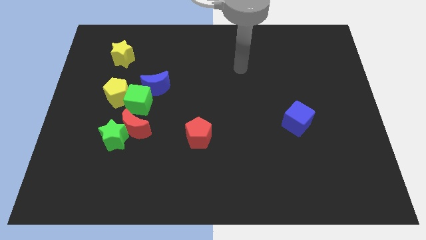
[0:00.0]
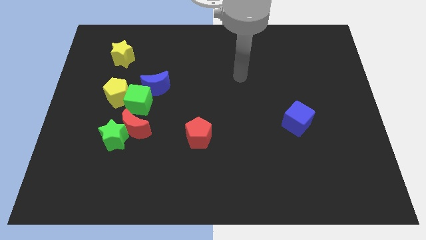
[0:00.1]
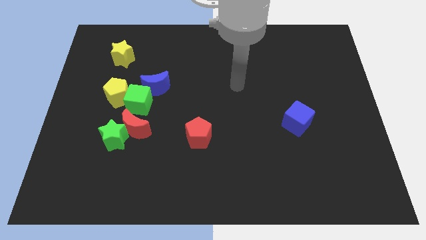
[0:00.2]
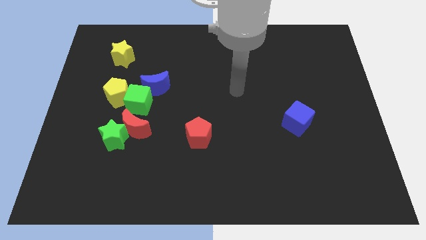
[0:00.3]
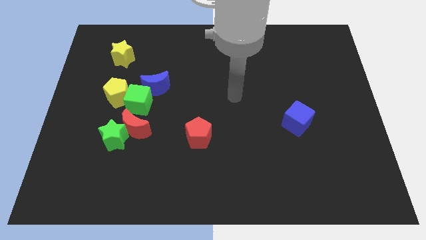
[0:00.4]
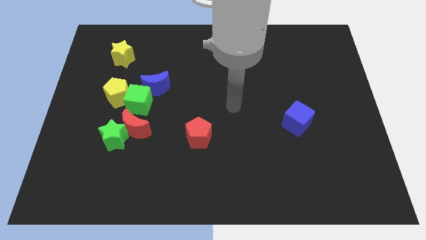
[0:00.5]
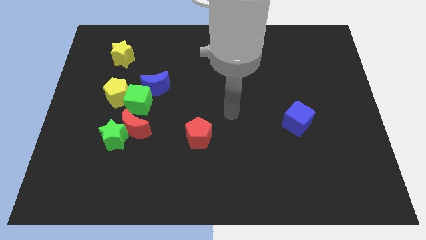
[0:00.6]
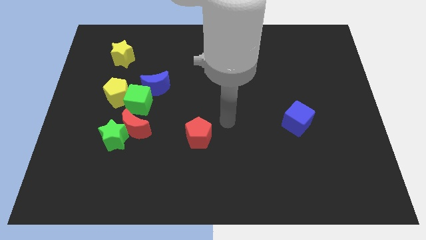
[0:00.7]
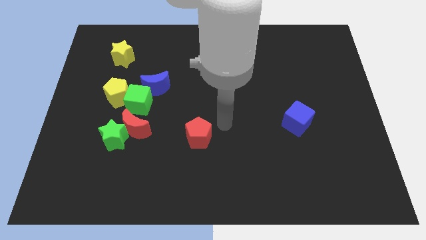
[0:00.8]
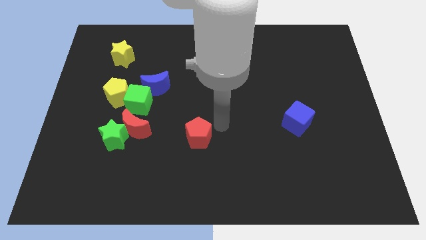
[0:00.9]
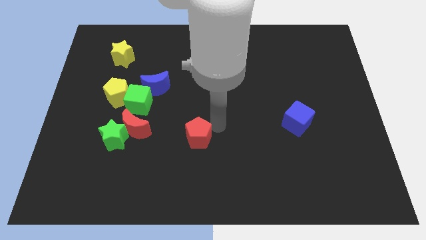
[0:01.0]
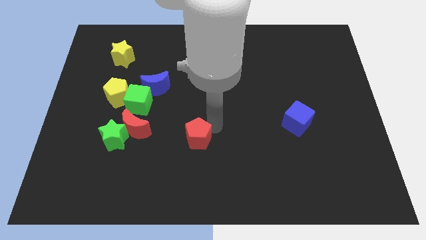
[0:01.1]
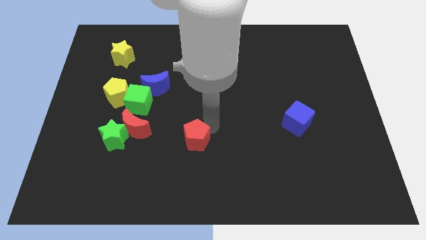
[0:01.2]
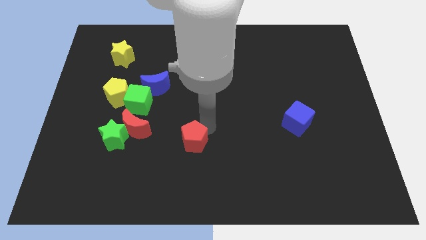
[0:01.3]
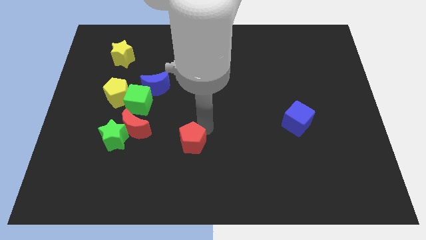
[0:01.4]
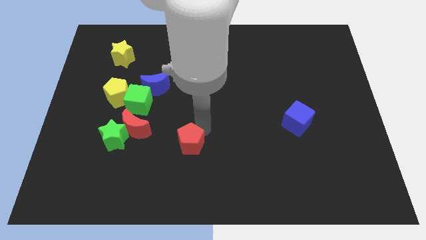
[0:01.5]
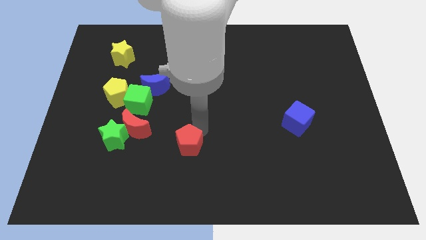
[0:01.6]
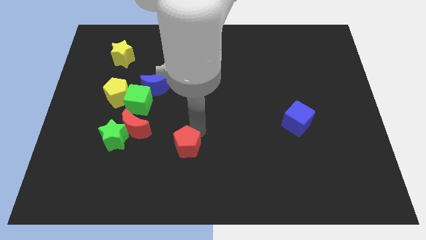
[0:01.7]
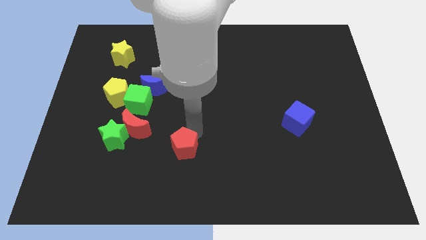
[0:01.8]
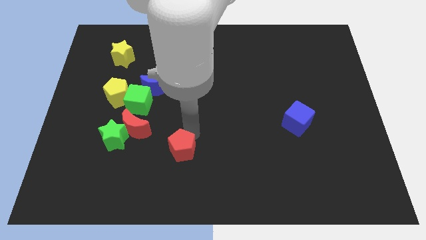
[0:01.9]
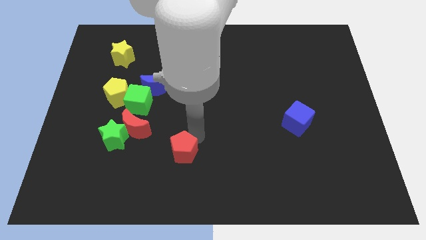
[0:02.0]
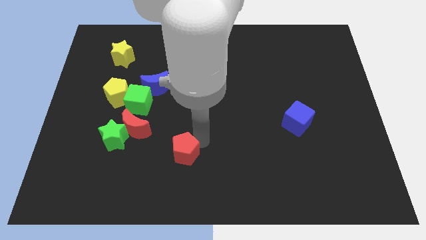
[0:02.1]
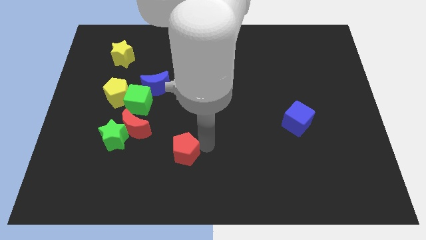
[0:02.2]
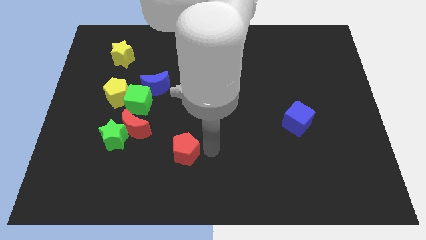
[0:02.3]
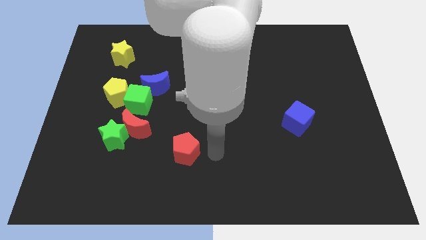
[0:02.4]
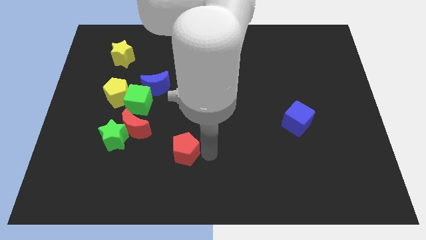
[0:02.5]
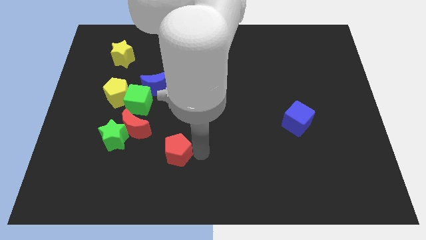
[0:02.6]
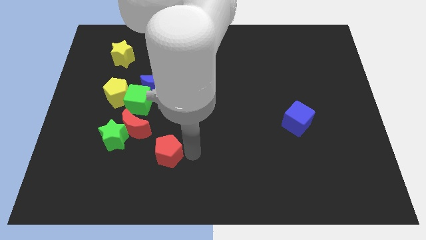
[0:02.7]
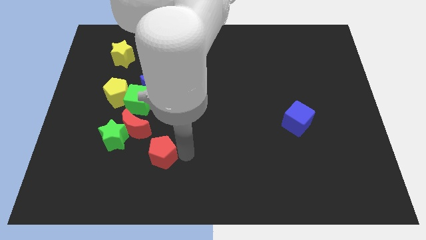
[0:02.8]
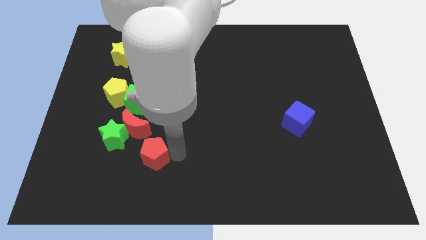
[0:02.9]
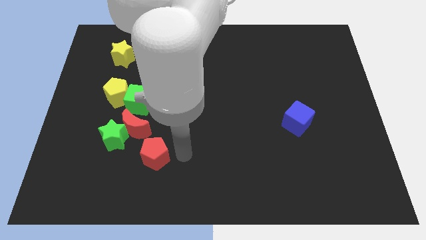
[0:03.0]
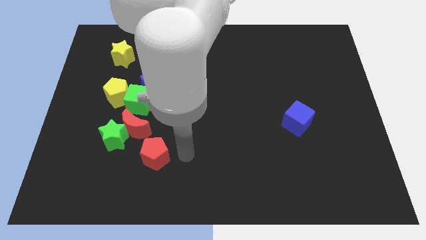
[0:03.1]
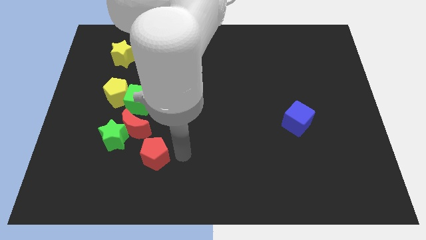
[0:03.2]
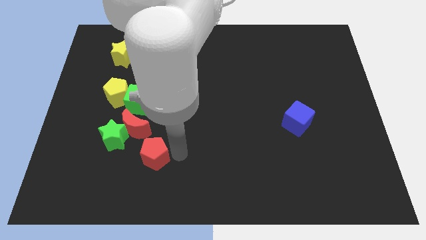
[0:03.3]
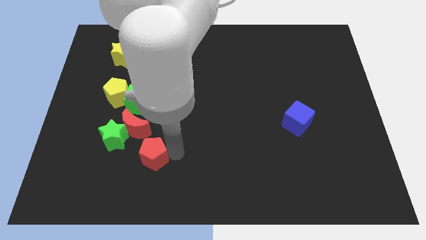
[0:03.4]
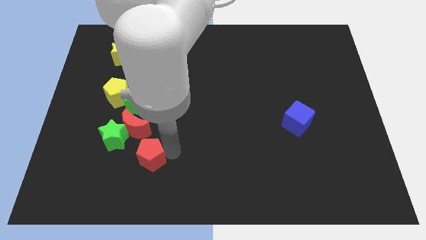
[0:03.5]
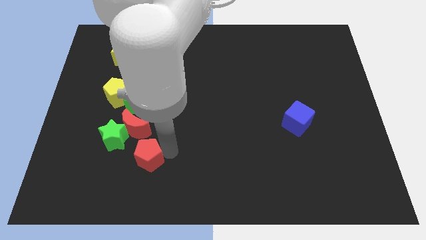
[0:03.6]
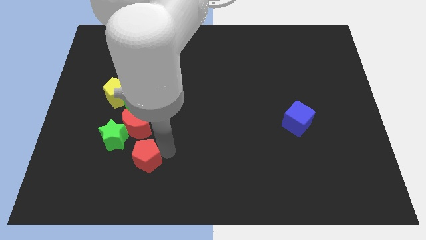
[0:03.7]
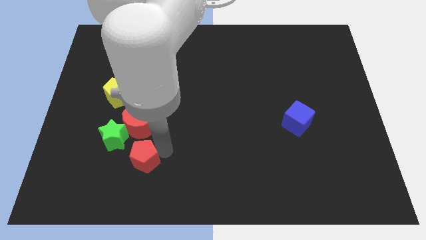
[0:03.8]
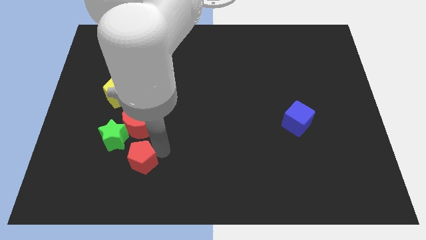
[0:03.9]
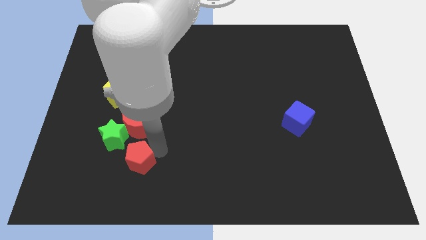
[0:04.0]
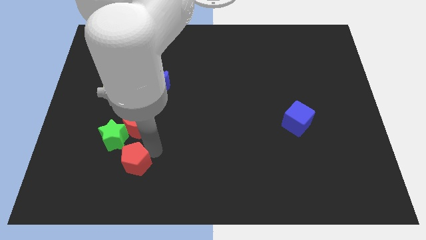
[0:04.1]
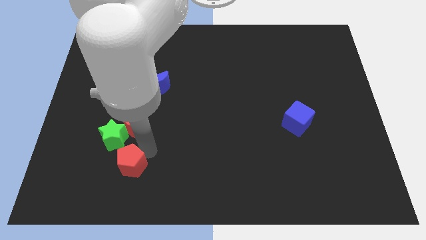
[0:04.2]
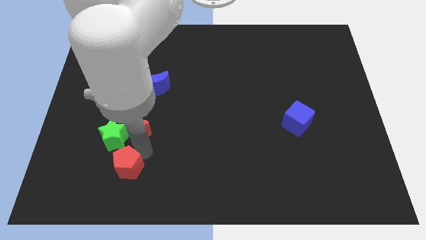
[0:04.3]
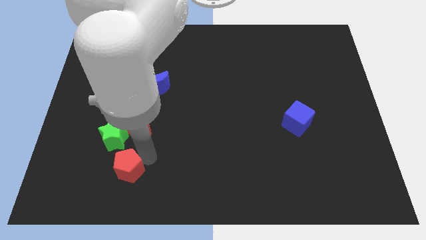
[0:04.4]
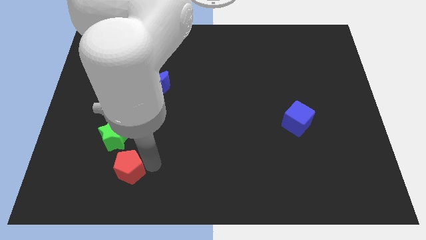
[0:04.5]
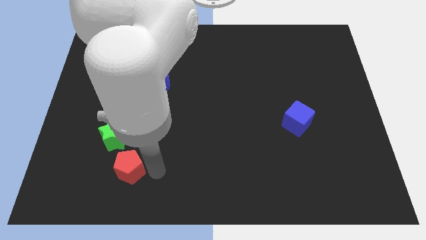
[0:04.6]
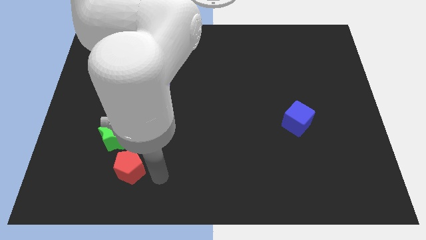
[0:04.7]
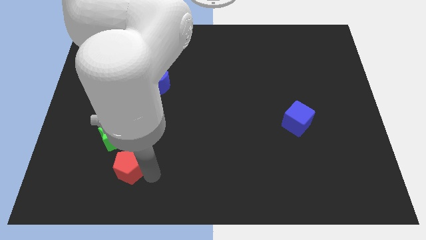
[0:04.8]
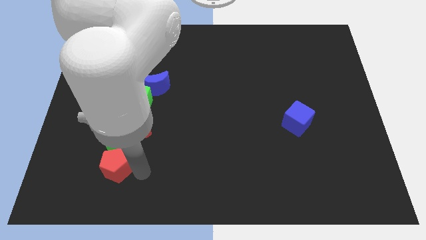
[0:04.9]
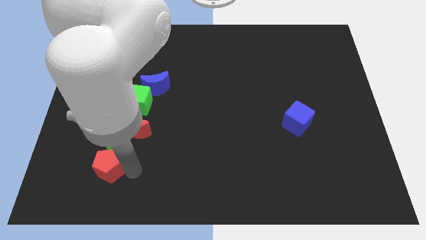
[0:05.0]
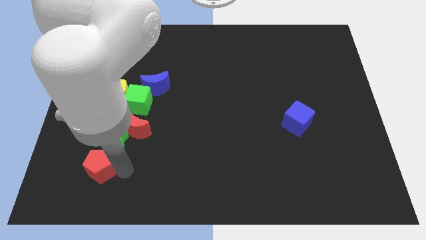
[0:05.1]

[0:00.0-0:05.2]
move the red pentagon diagonally down and to the left of the green star

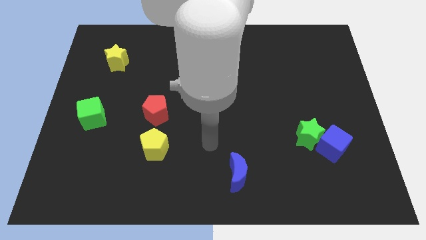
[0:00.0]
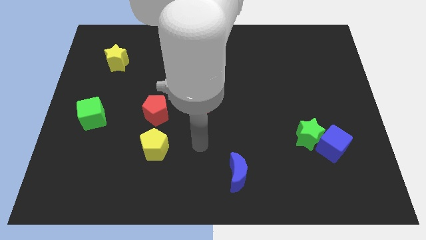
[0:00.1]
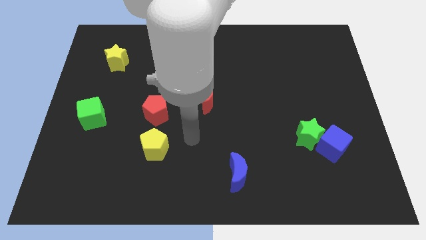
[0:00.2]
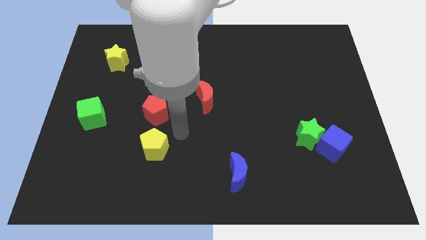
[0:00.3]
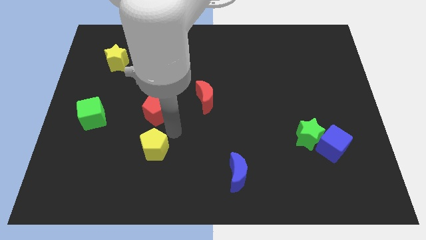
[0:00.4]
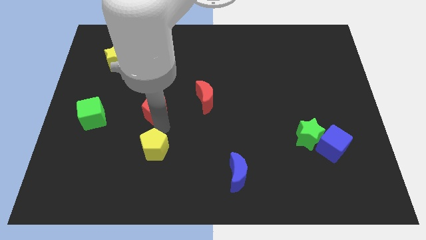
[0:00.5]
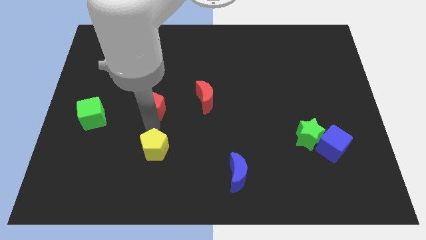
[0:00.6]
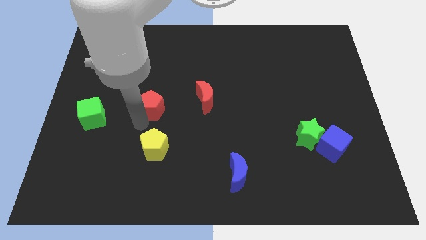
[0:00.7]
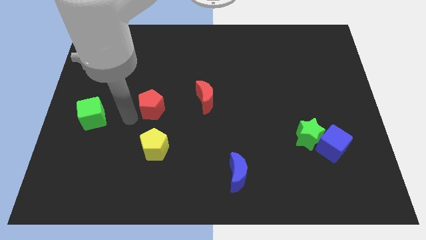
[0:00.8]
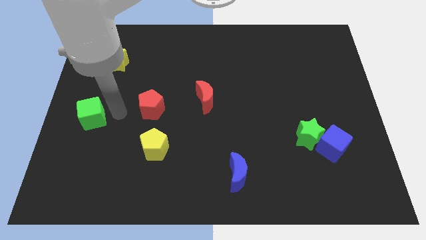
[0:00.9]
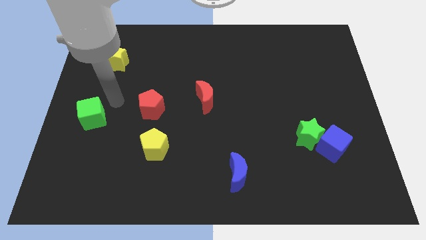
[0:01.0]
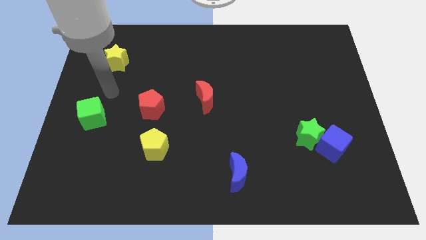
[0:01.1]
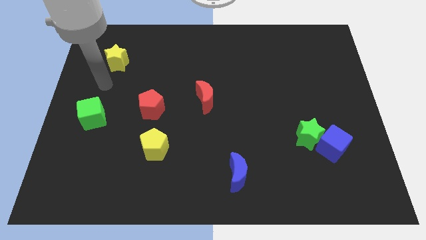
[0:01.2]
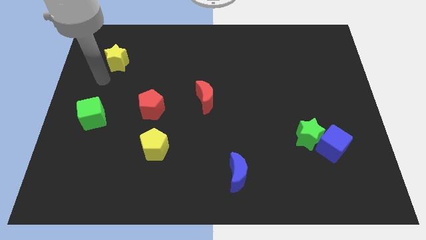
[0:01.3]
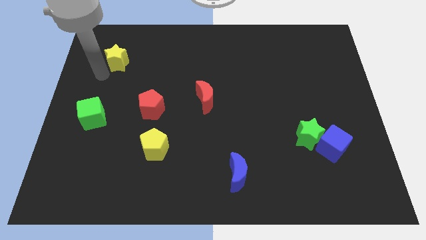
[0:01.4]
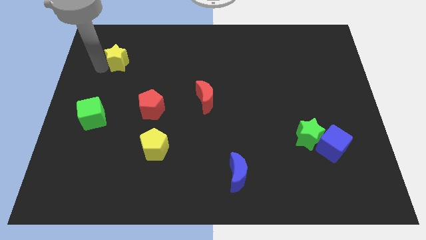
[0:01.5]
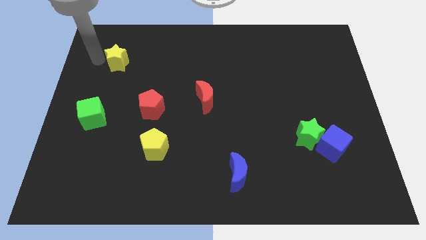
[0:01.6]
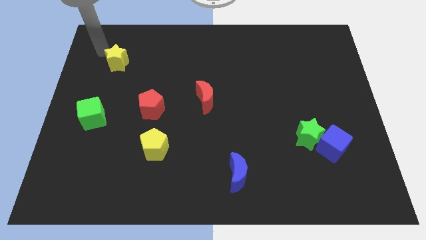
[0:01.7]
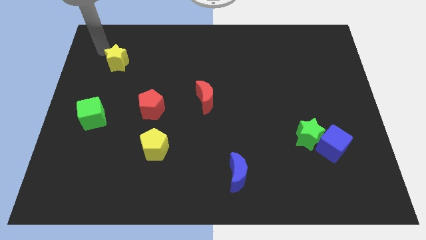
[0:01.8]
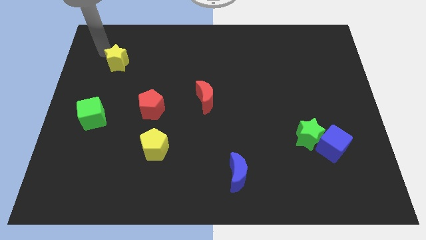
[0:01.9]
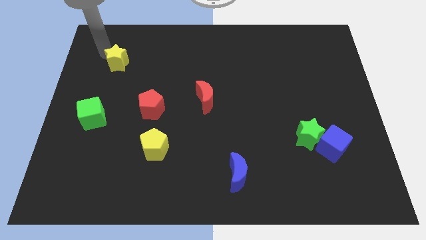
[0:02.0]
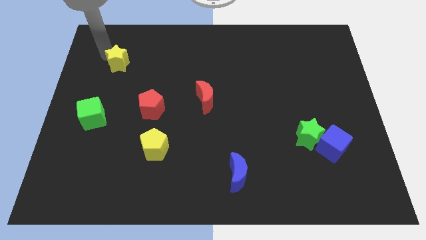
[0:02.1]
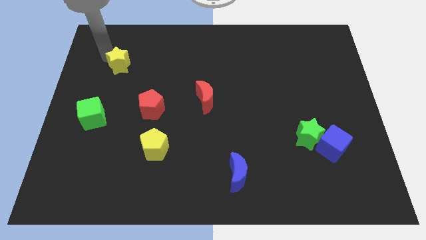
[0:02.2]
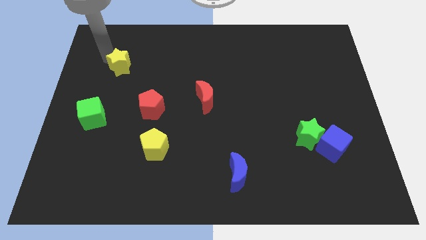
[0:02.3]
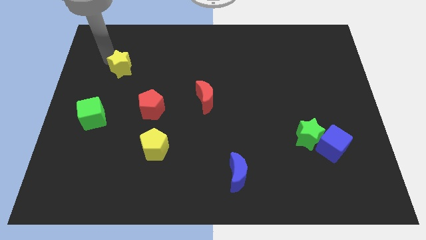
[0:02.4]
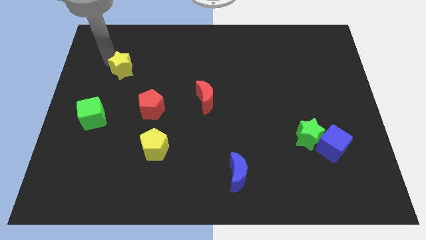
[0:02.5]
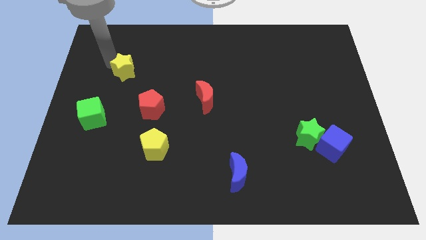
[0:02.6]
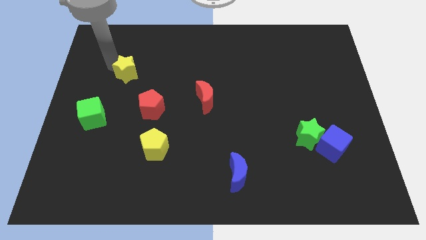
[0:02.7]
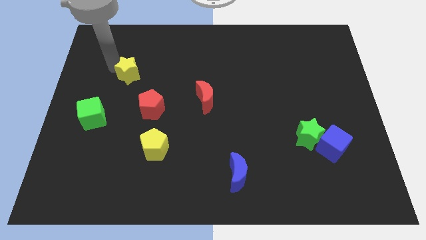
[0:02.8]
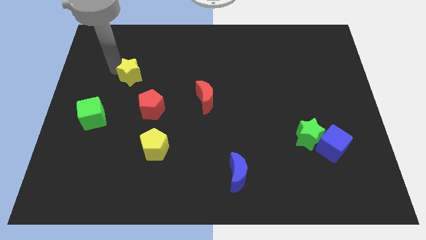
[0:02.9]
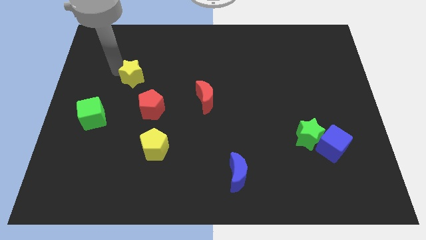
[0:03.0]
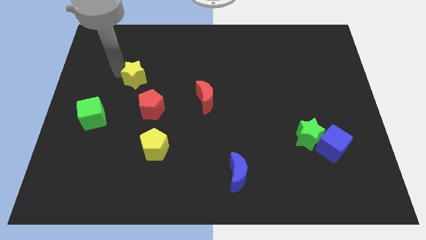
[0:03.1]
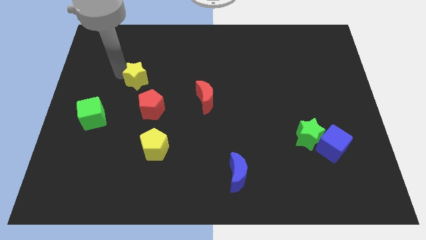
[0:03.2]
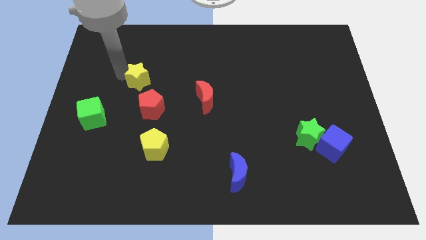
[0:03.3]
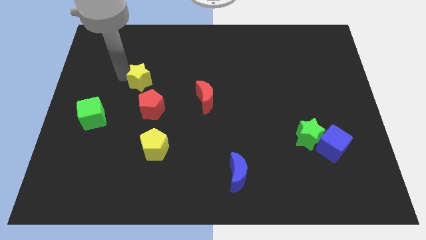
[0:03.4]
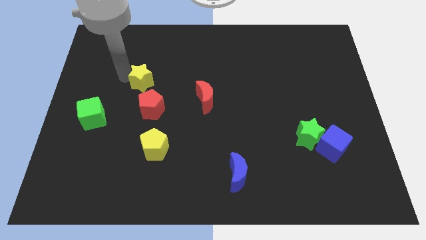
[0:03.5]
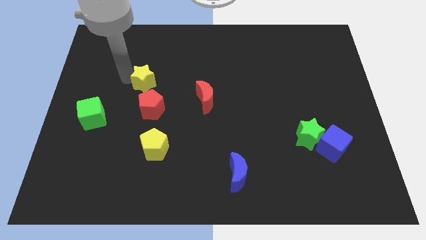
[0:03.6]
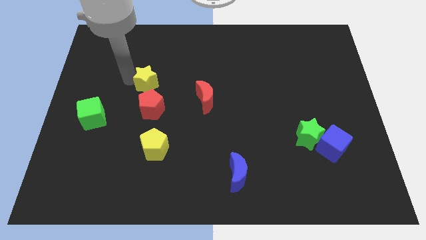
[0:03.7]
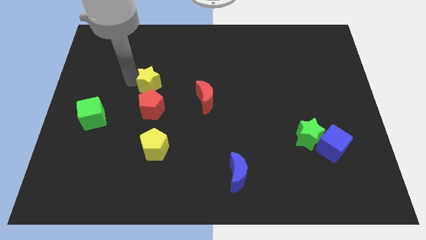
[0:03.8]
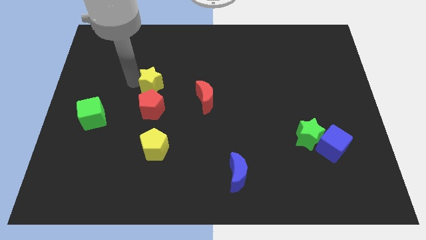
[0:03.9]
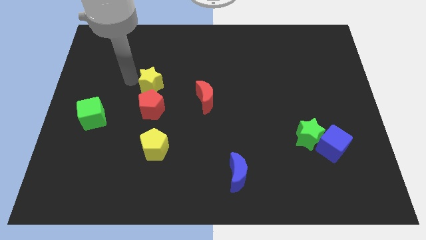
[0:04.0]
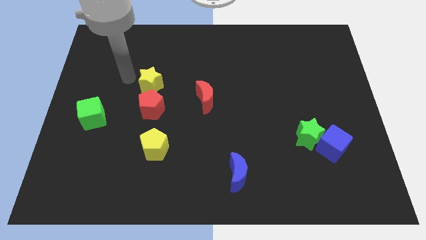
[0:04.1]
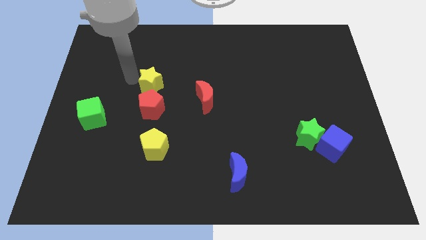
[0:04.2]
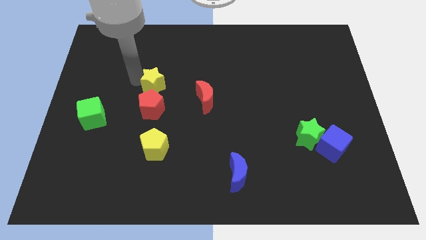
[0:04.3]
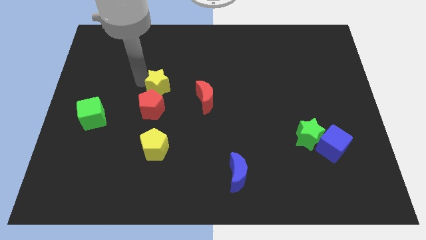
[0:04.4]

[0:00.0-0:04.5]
move the yellow star to the top right side of the red pentagon
